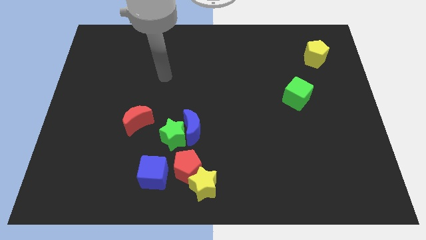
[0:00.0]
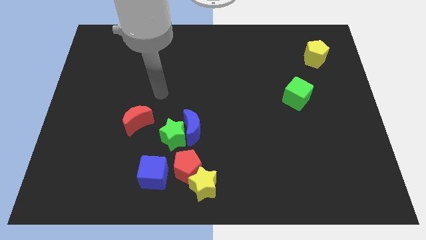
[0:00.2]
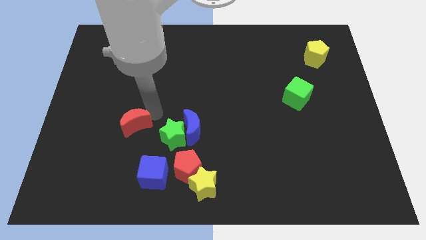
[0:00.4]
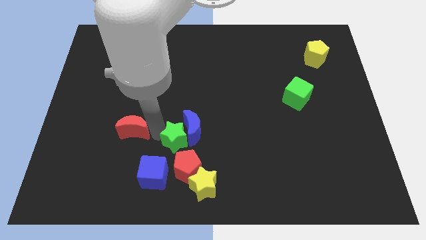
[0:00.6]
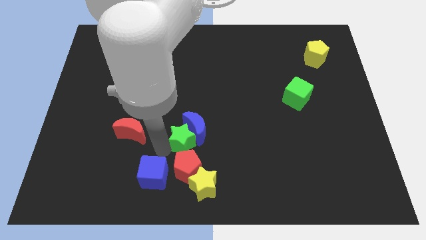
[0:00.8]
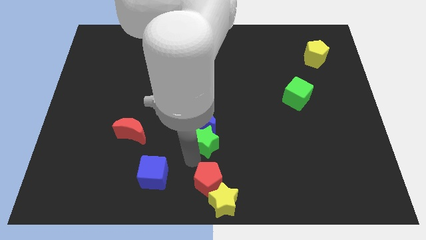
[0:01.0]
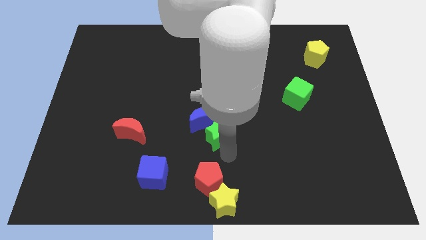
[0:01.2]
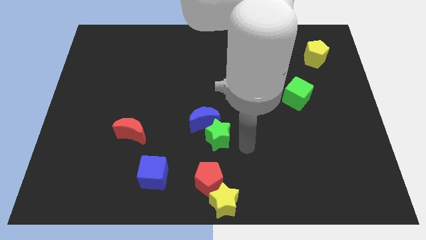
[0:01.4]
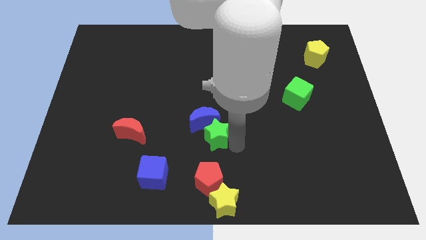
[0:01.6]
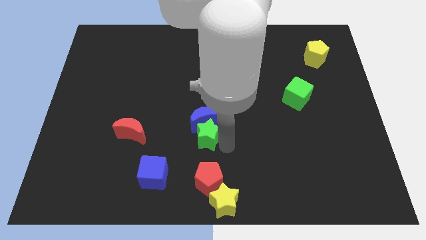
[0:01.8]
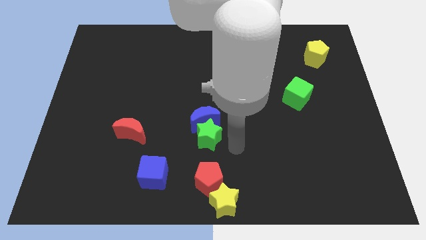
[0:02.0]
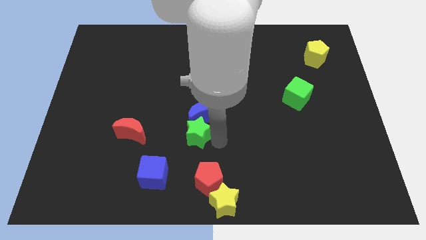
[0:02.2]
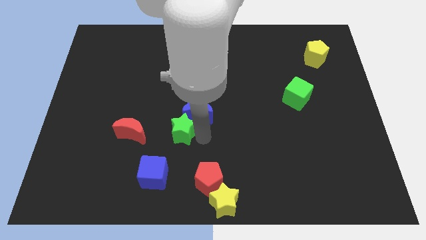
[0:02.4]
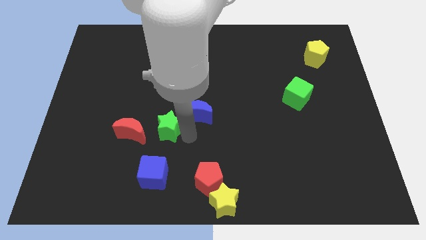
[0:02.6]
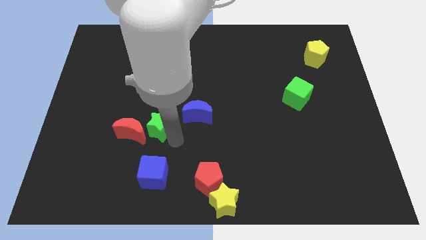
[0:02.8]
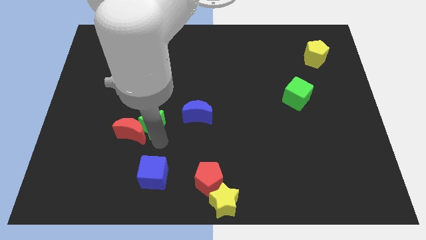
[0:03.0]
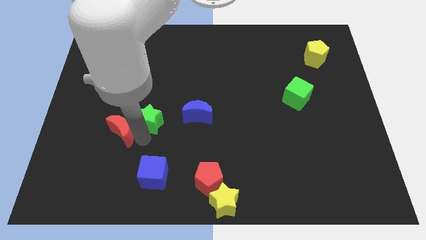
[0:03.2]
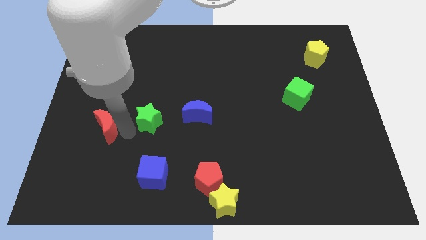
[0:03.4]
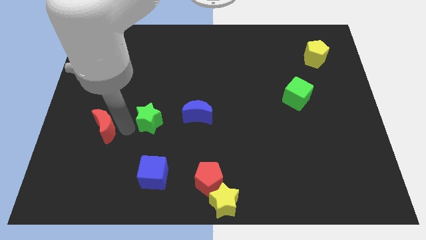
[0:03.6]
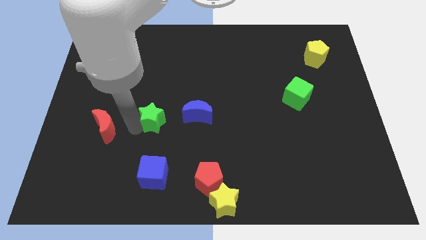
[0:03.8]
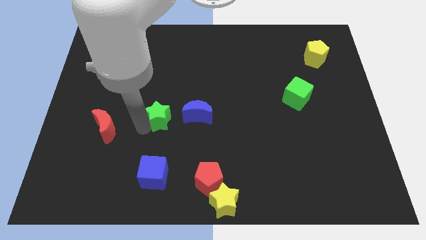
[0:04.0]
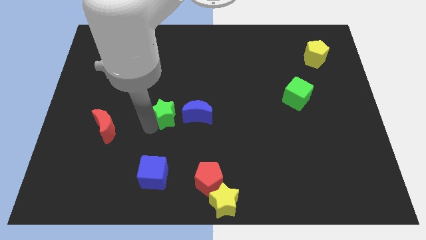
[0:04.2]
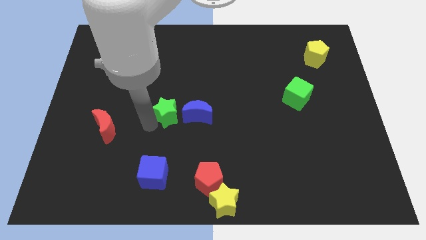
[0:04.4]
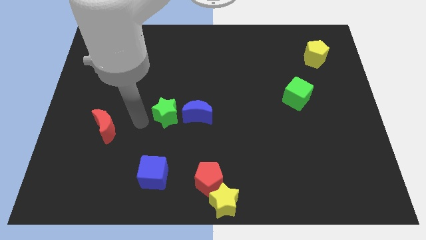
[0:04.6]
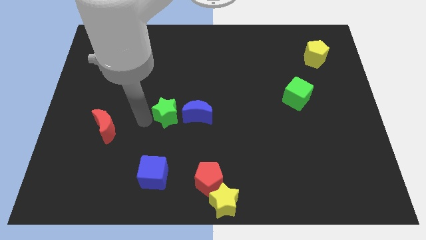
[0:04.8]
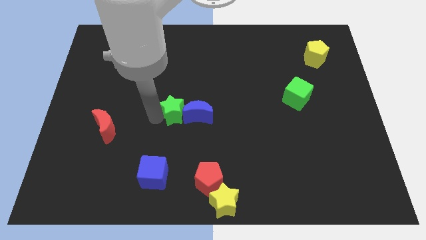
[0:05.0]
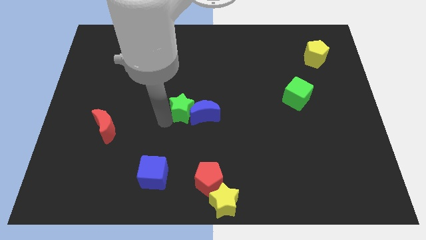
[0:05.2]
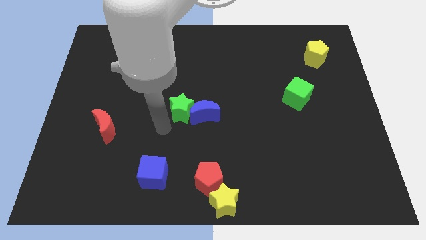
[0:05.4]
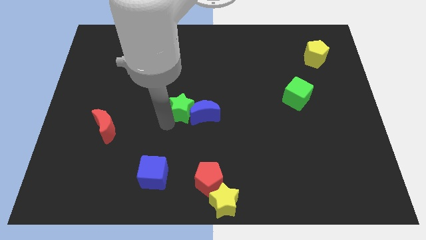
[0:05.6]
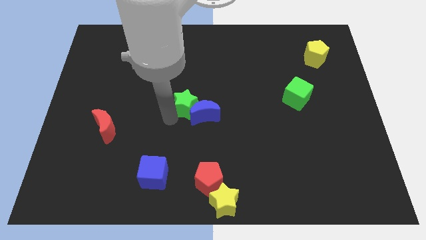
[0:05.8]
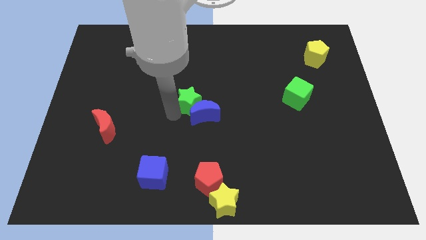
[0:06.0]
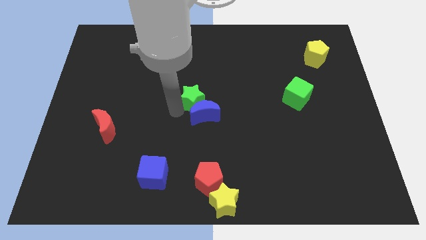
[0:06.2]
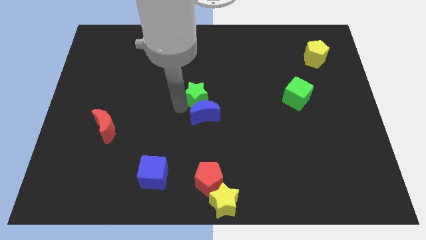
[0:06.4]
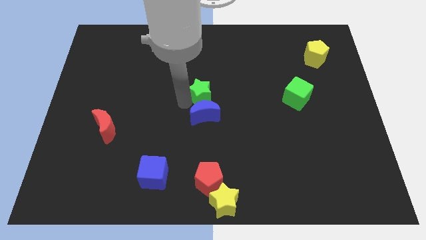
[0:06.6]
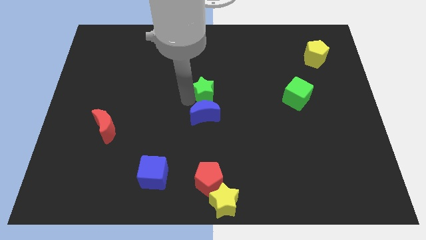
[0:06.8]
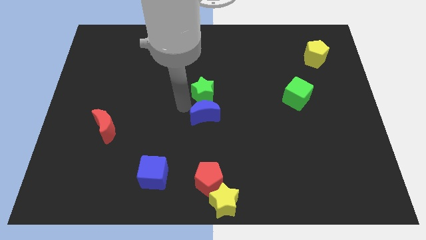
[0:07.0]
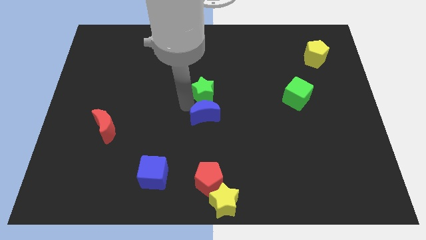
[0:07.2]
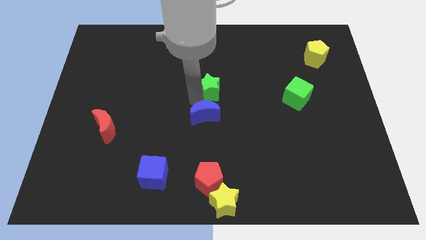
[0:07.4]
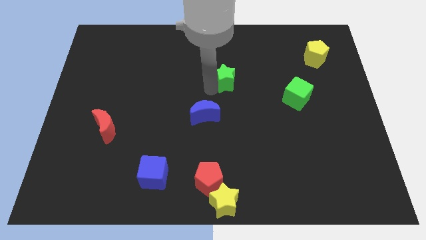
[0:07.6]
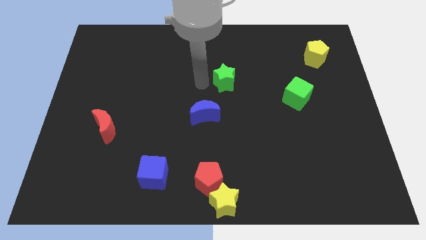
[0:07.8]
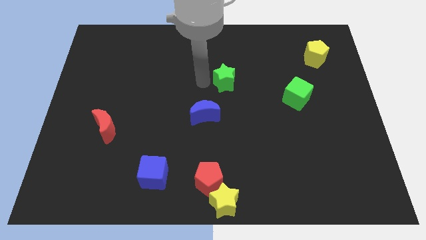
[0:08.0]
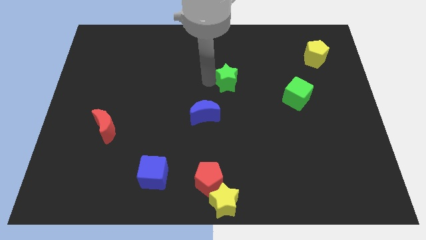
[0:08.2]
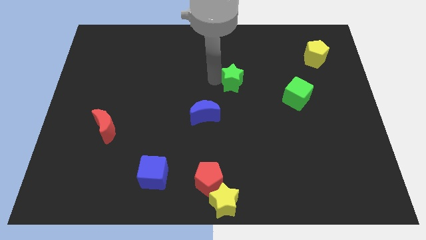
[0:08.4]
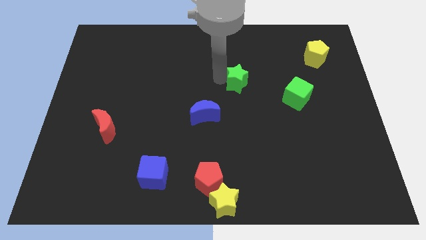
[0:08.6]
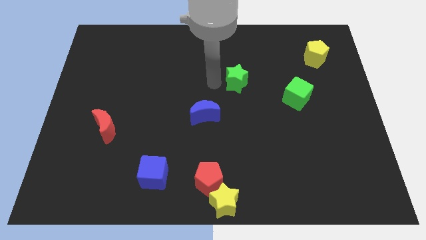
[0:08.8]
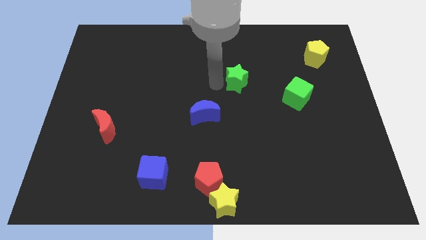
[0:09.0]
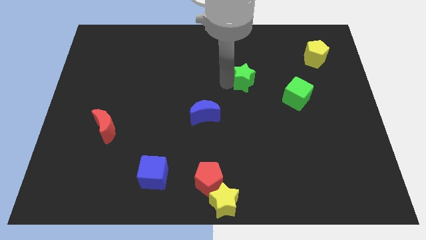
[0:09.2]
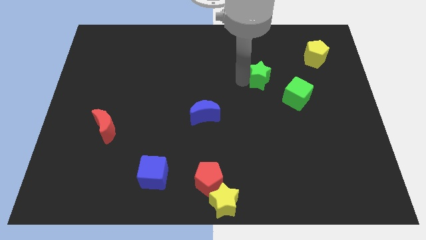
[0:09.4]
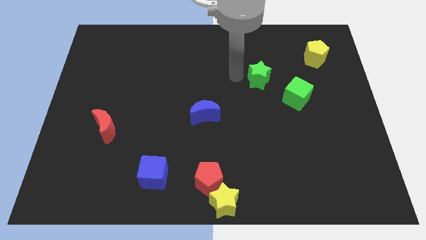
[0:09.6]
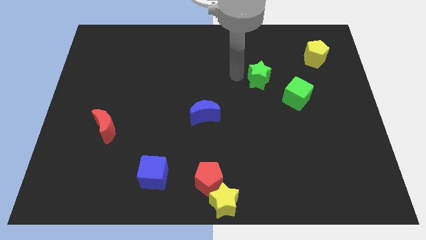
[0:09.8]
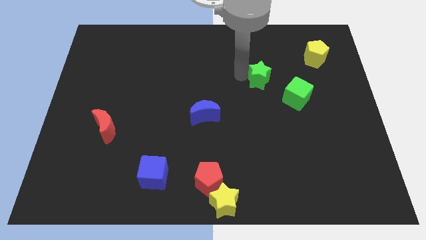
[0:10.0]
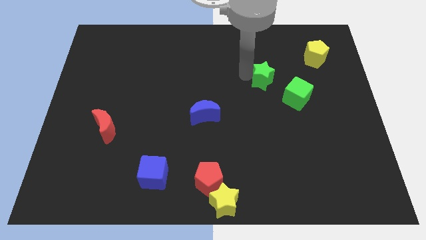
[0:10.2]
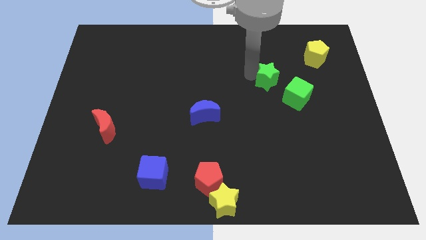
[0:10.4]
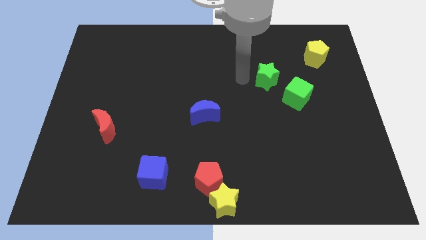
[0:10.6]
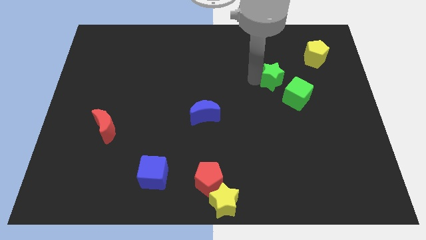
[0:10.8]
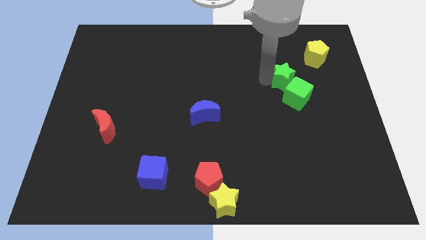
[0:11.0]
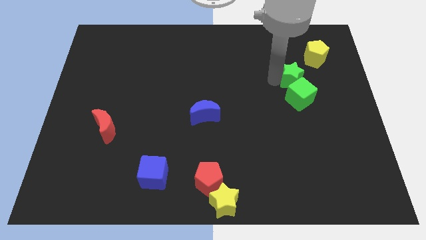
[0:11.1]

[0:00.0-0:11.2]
move the green star to the top right of the green cube

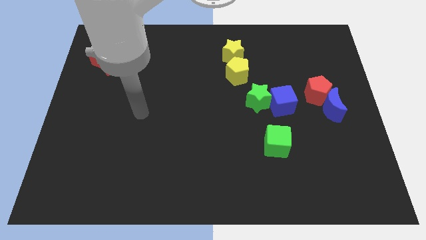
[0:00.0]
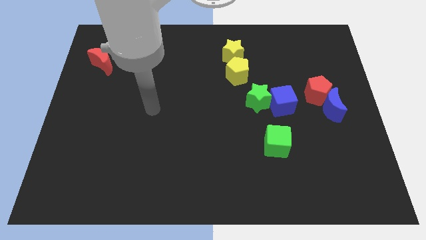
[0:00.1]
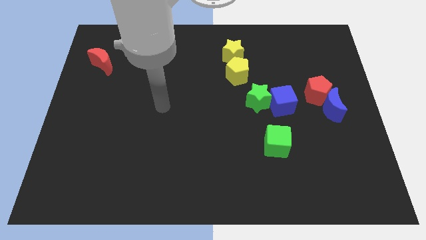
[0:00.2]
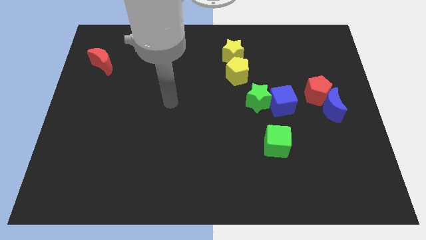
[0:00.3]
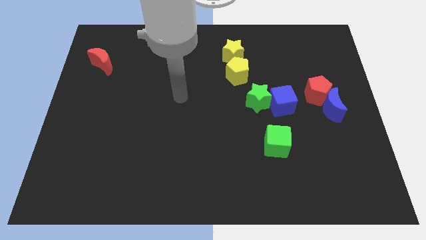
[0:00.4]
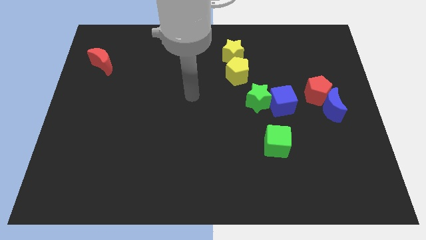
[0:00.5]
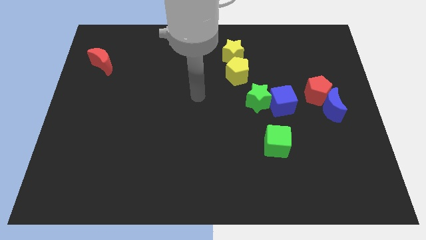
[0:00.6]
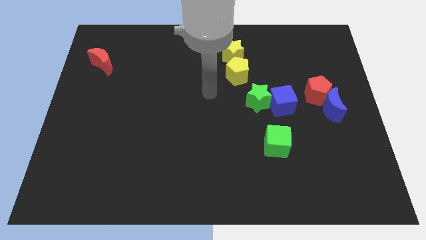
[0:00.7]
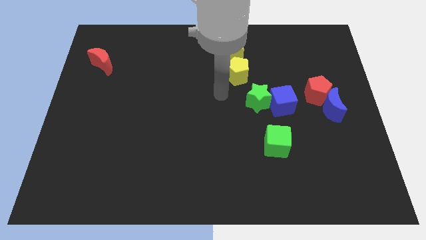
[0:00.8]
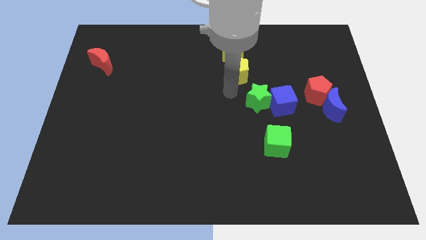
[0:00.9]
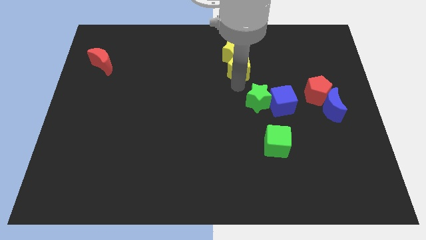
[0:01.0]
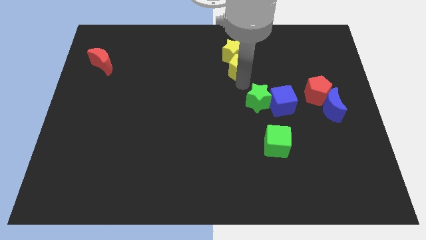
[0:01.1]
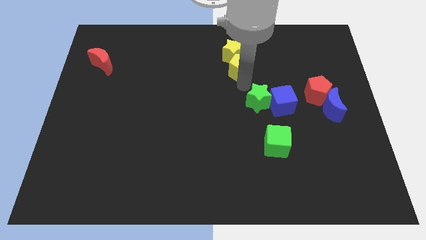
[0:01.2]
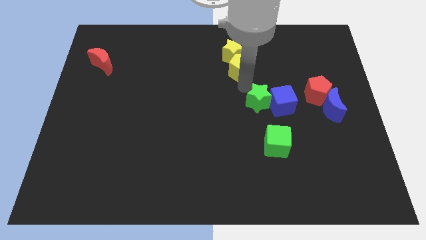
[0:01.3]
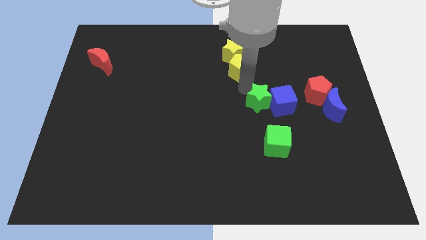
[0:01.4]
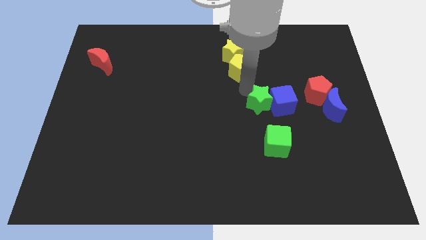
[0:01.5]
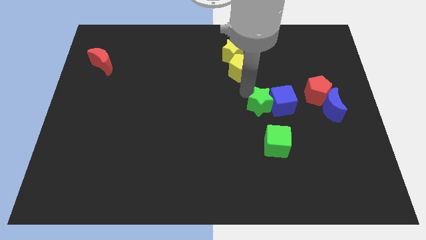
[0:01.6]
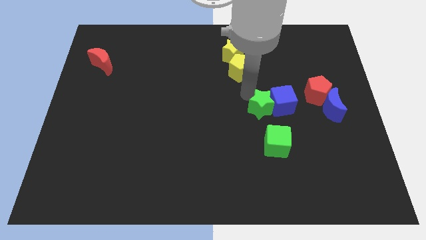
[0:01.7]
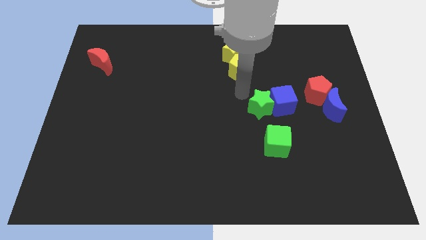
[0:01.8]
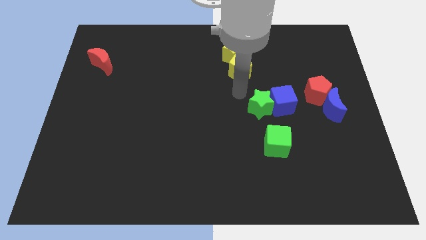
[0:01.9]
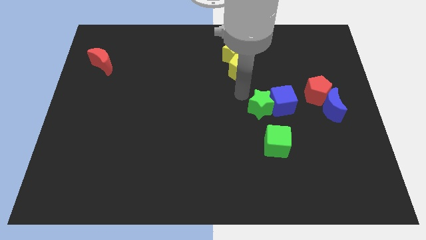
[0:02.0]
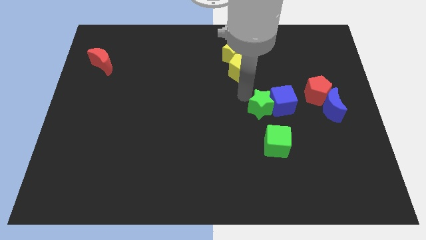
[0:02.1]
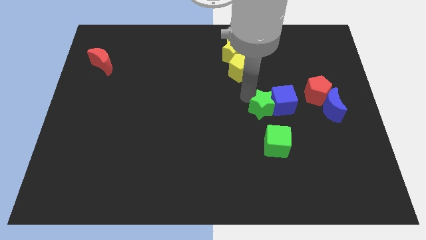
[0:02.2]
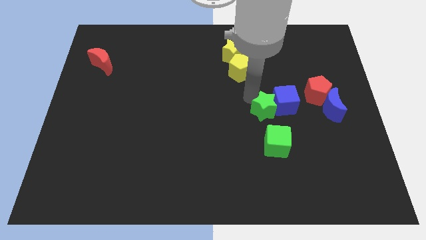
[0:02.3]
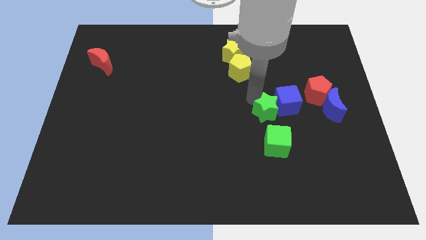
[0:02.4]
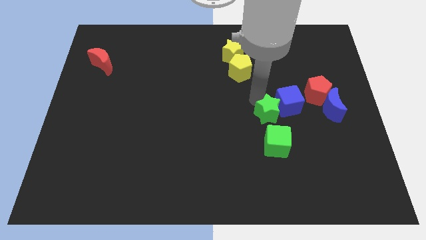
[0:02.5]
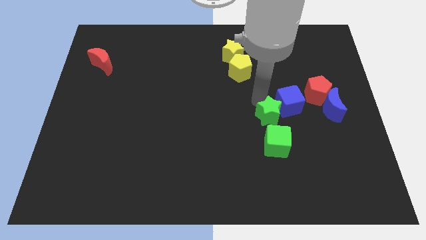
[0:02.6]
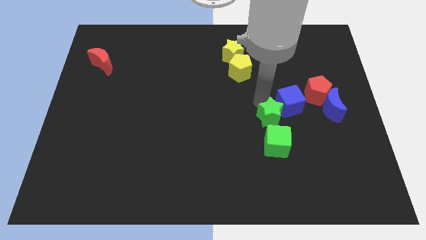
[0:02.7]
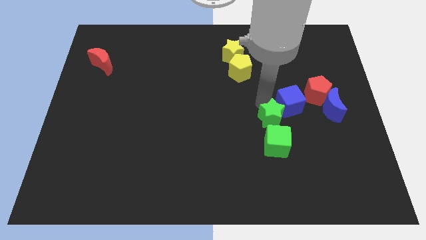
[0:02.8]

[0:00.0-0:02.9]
put the green star to the bottom of the blue cube
